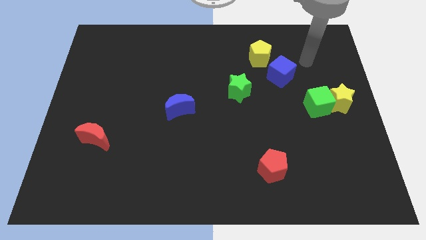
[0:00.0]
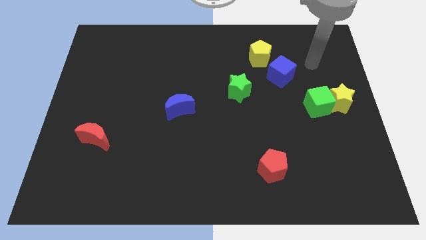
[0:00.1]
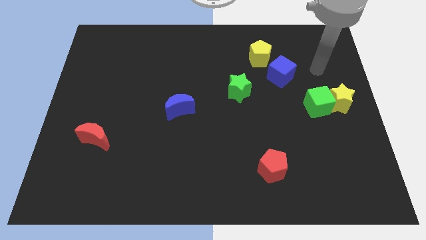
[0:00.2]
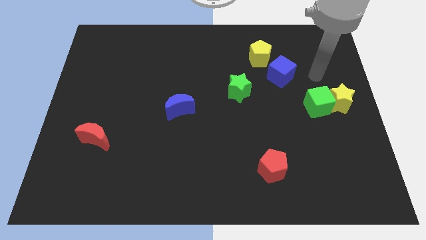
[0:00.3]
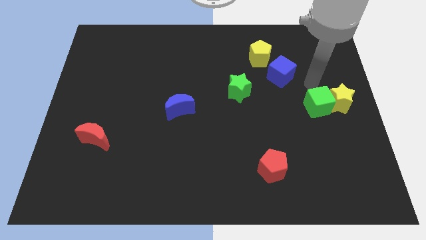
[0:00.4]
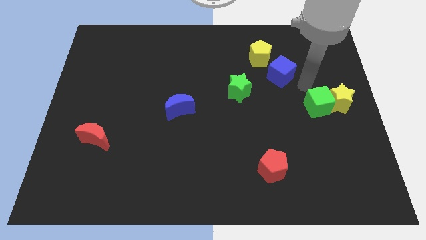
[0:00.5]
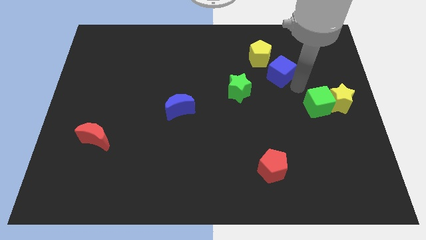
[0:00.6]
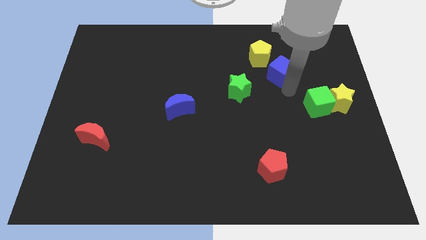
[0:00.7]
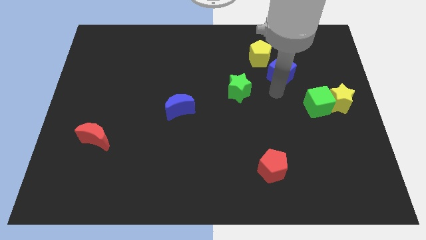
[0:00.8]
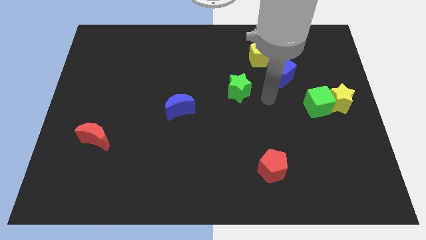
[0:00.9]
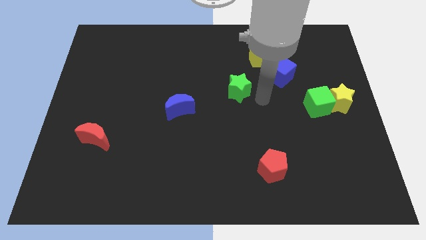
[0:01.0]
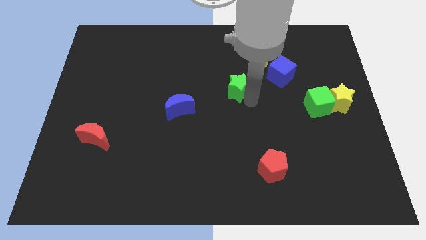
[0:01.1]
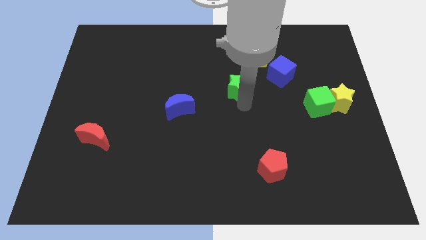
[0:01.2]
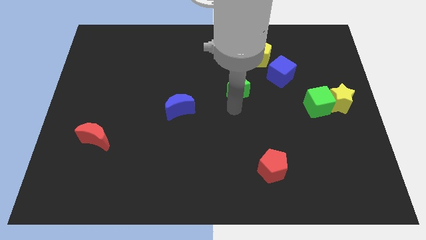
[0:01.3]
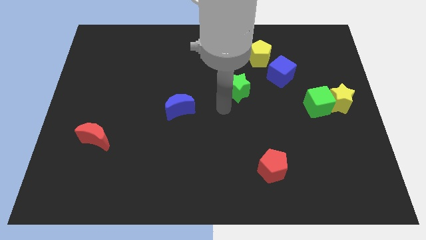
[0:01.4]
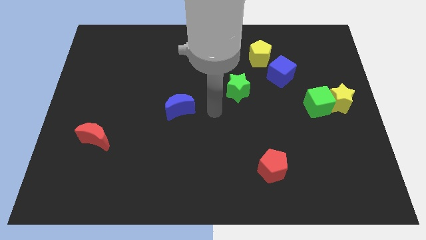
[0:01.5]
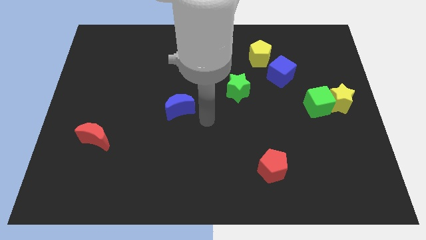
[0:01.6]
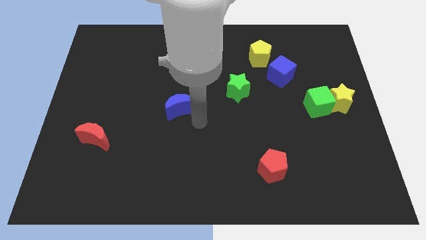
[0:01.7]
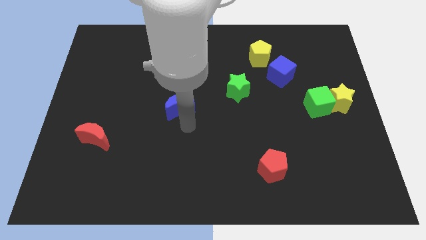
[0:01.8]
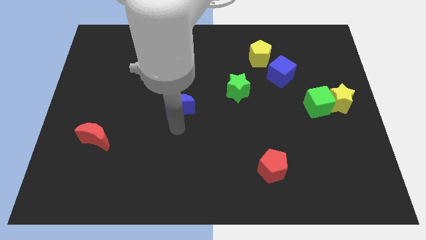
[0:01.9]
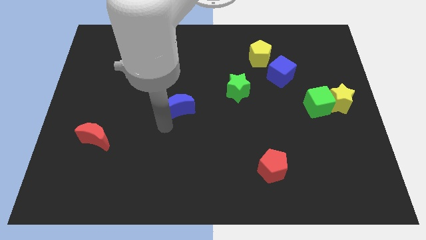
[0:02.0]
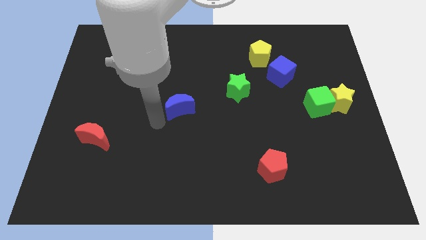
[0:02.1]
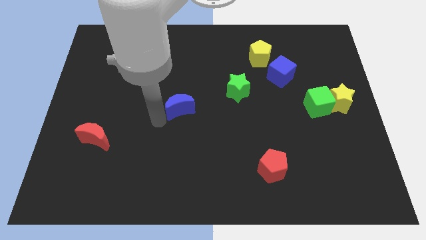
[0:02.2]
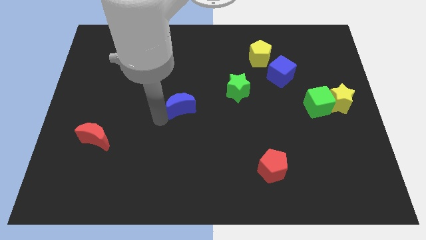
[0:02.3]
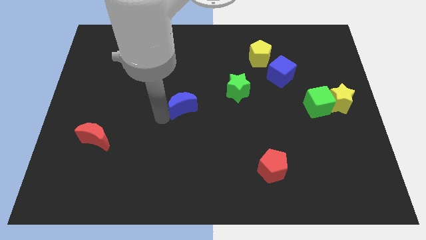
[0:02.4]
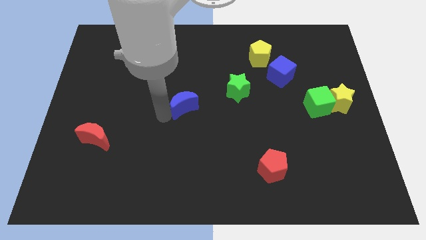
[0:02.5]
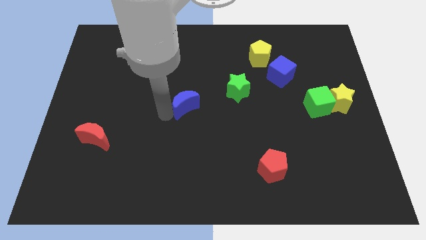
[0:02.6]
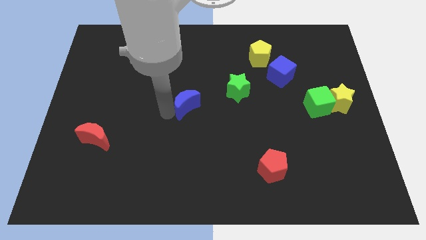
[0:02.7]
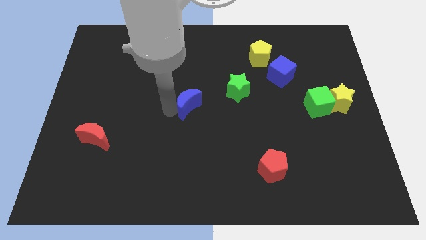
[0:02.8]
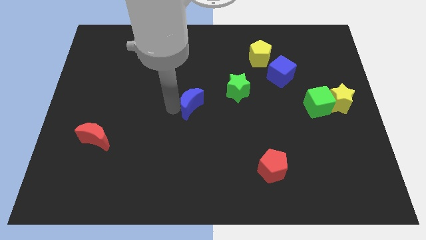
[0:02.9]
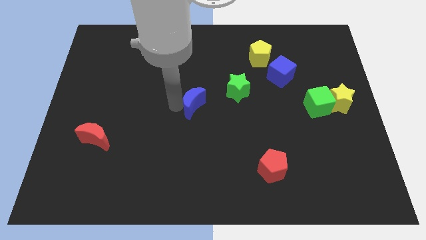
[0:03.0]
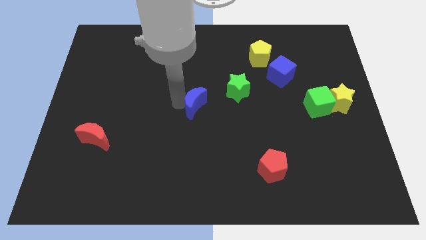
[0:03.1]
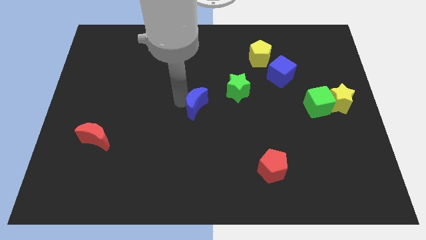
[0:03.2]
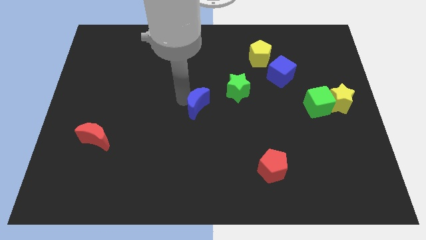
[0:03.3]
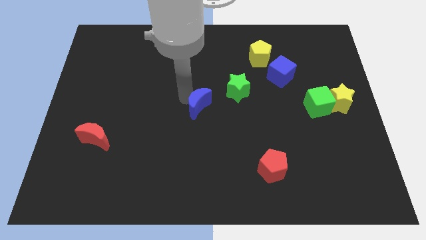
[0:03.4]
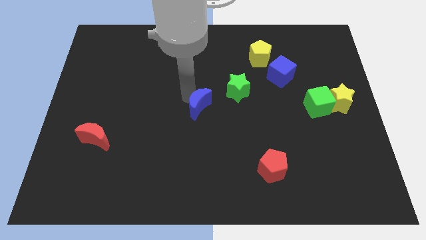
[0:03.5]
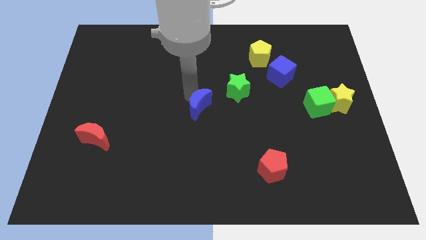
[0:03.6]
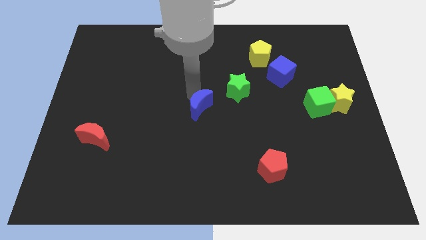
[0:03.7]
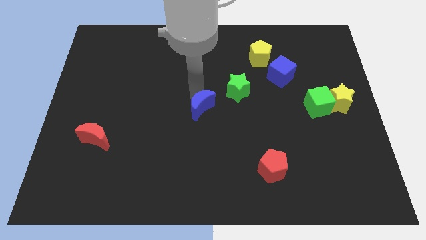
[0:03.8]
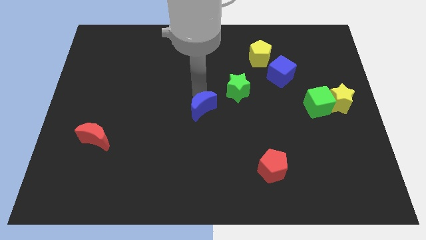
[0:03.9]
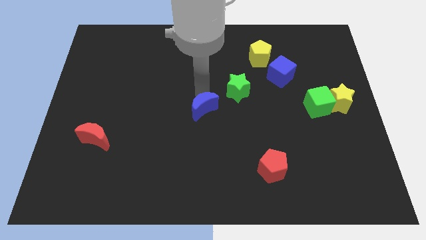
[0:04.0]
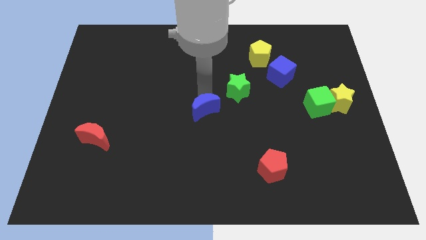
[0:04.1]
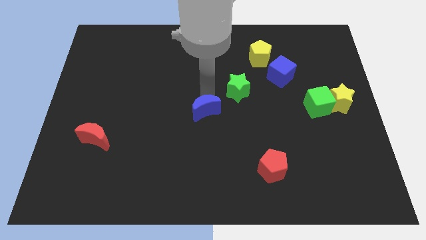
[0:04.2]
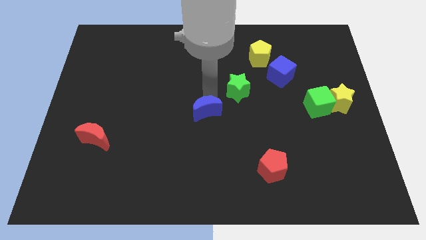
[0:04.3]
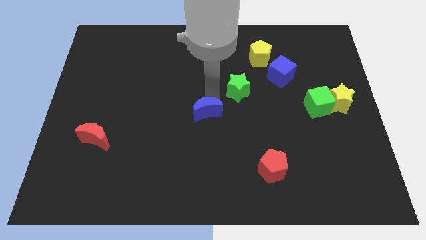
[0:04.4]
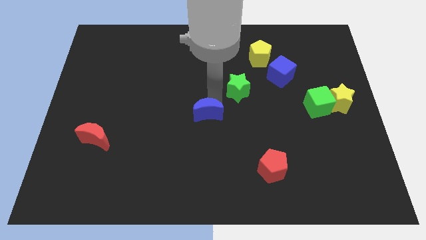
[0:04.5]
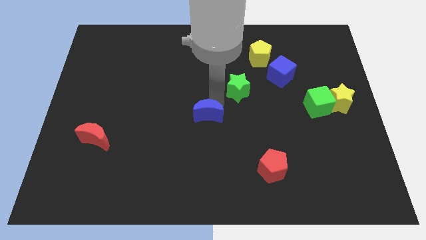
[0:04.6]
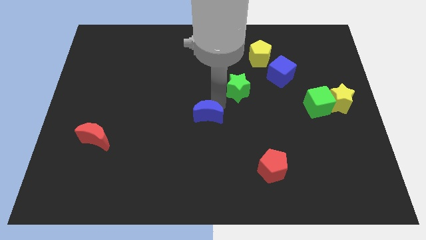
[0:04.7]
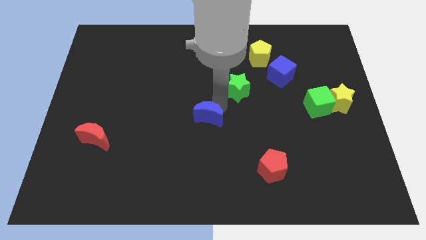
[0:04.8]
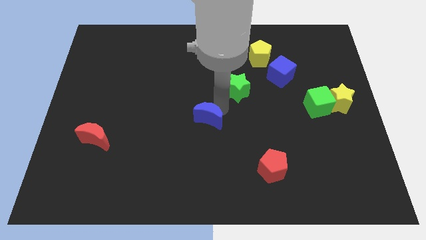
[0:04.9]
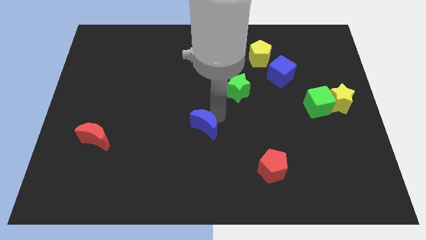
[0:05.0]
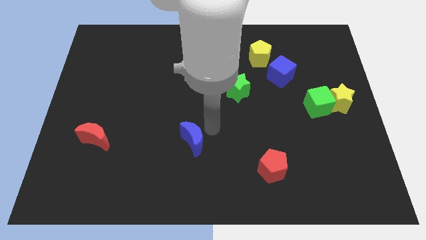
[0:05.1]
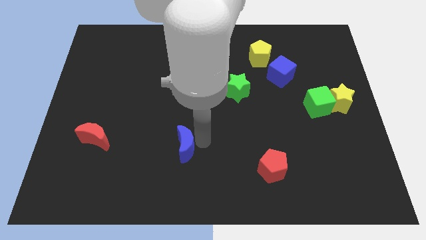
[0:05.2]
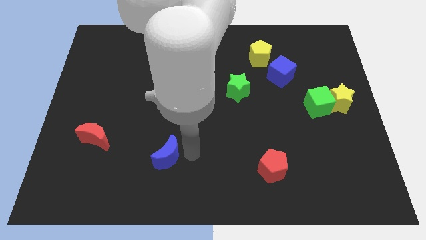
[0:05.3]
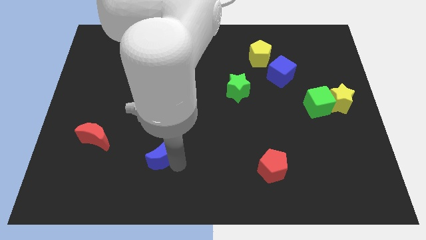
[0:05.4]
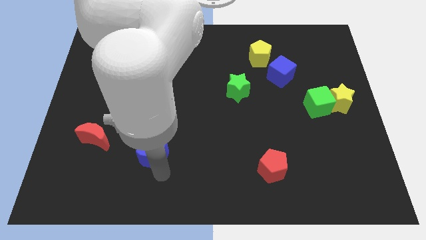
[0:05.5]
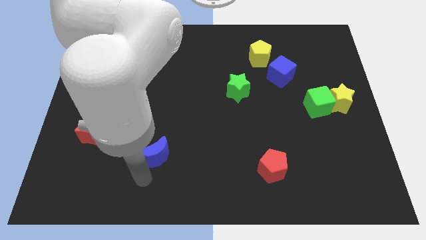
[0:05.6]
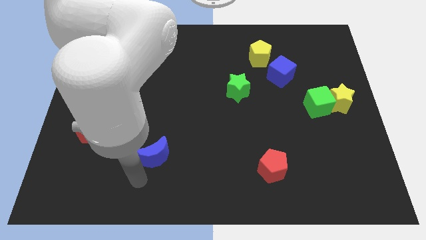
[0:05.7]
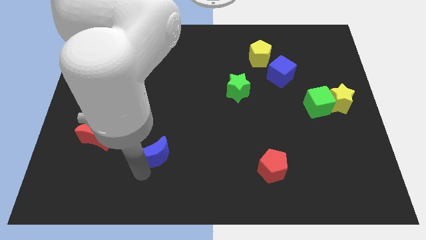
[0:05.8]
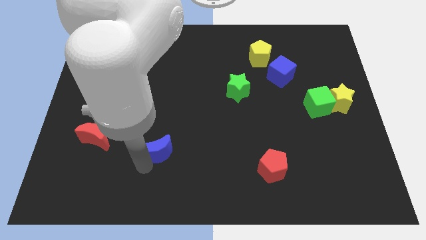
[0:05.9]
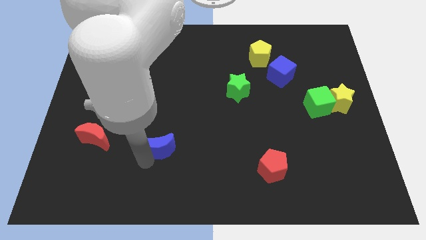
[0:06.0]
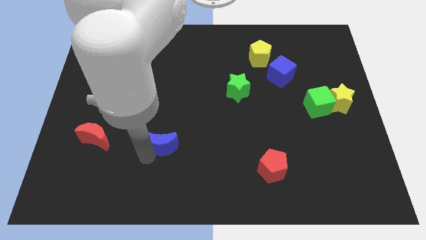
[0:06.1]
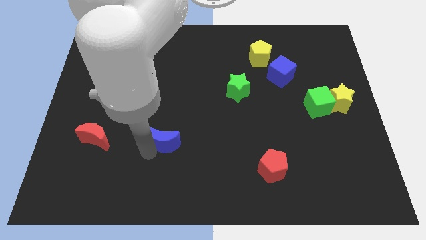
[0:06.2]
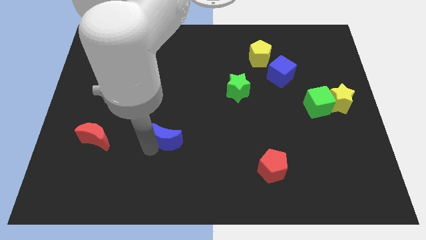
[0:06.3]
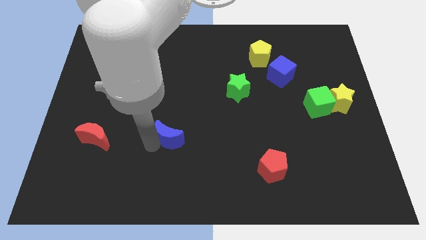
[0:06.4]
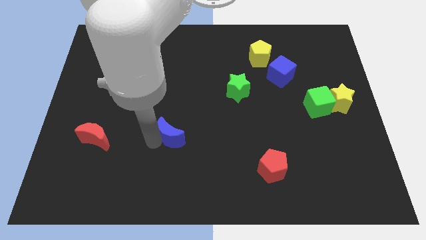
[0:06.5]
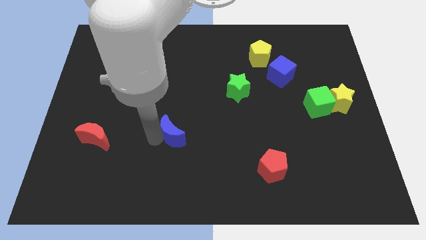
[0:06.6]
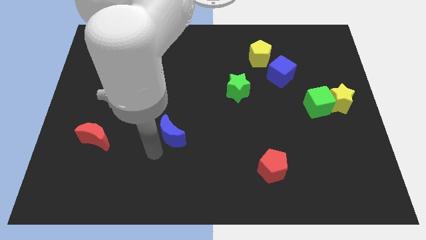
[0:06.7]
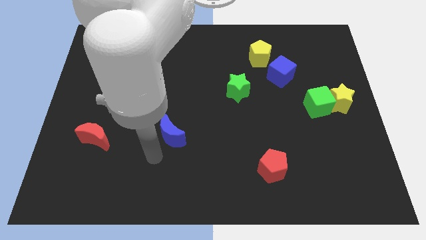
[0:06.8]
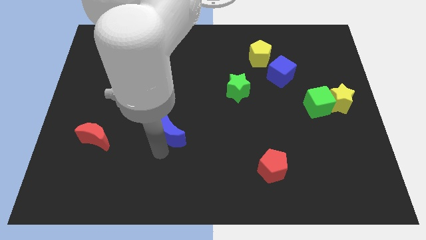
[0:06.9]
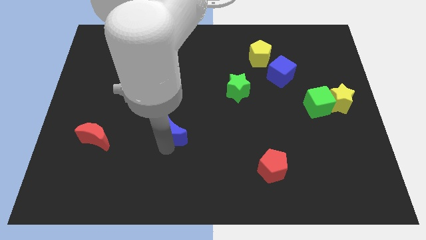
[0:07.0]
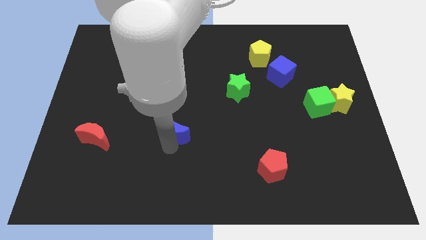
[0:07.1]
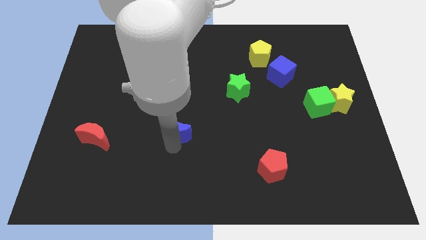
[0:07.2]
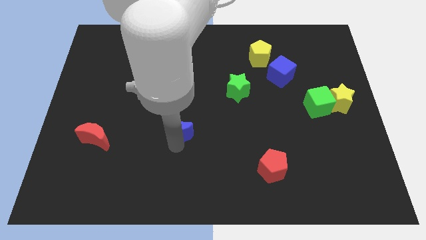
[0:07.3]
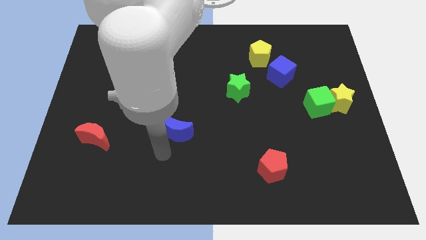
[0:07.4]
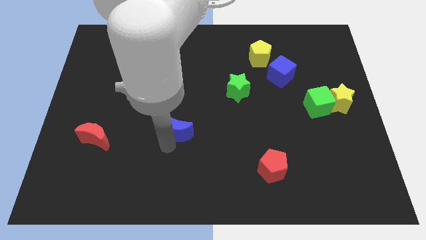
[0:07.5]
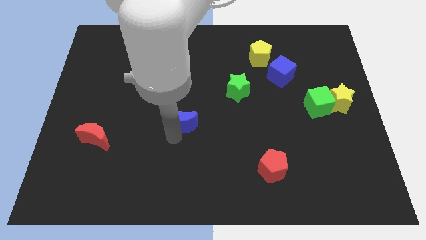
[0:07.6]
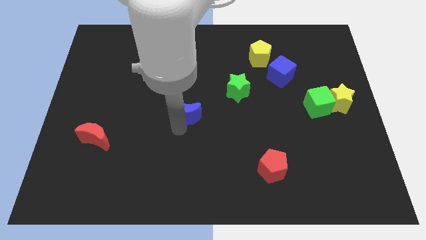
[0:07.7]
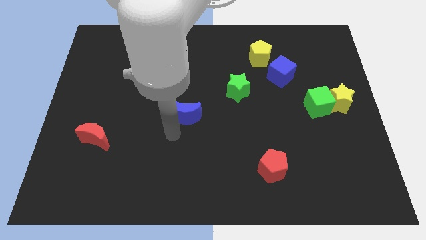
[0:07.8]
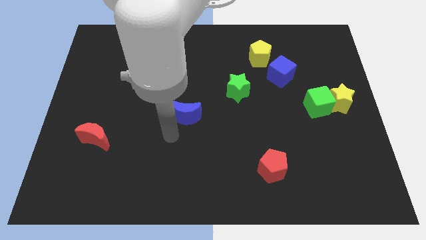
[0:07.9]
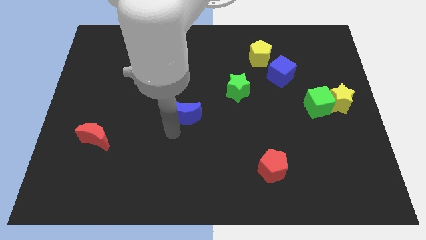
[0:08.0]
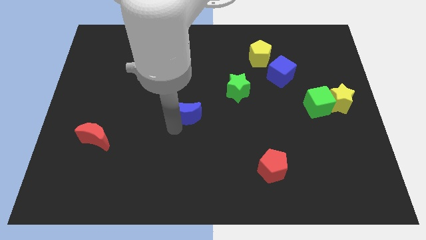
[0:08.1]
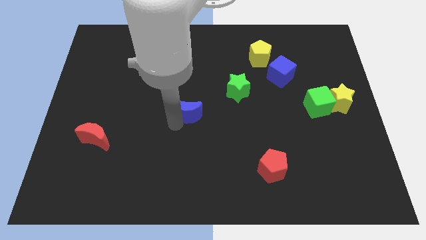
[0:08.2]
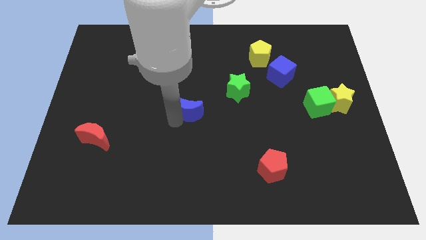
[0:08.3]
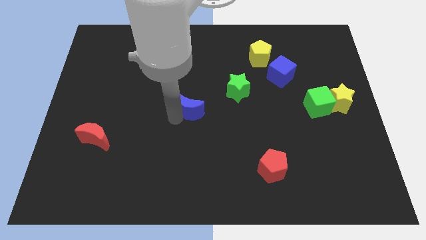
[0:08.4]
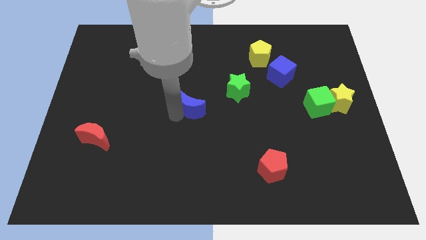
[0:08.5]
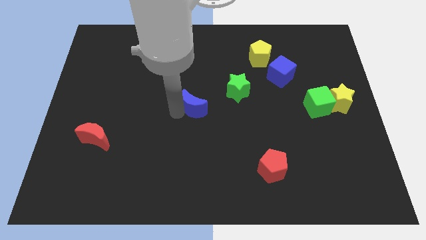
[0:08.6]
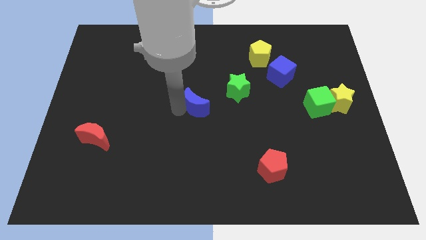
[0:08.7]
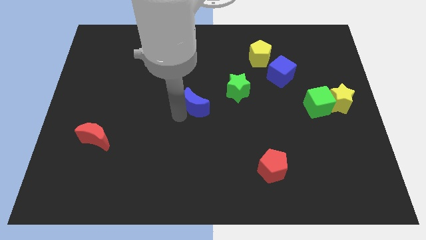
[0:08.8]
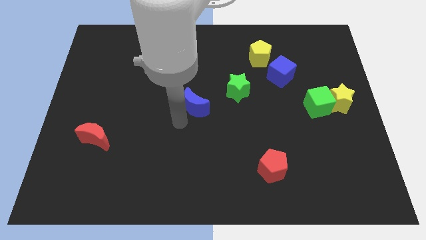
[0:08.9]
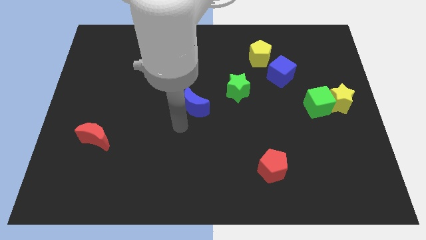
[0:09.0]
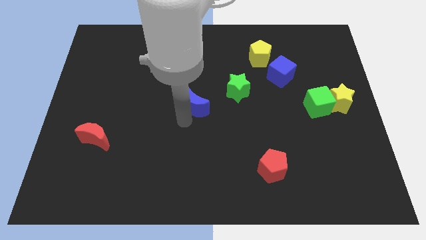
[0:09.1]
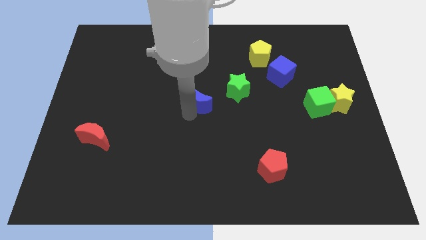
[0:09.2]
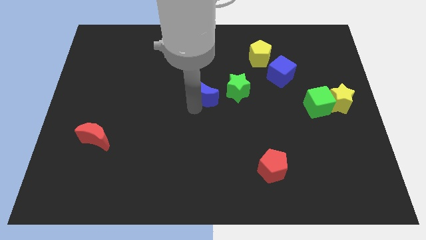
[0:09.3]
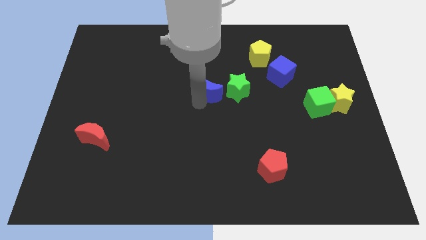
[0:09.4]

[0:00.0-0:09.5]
slide the blue moon up and right diagonally somewhat
